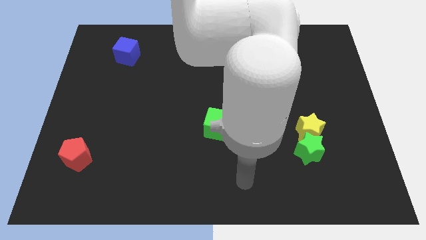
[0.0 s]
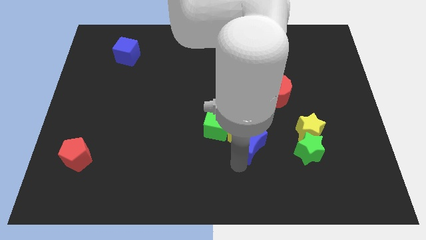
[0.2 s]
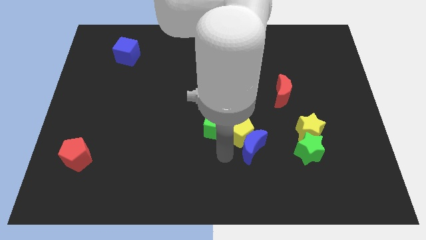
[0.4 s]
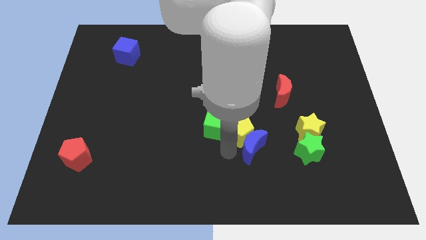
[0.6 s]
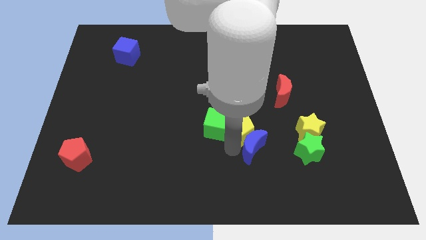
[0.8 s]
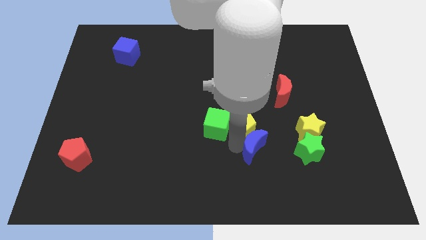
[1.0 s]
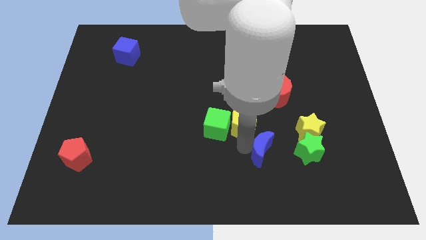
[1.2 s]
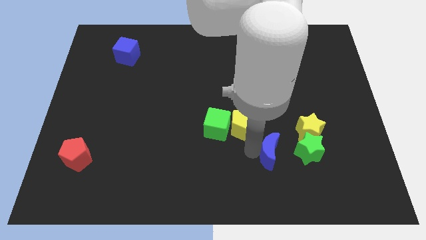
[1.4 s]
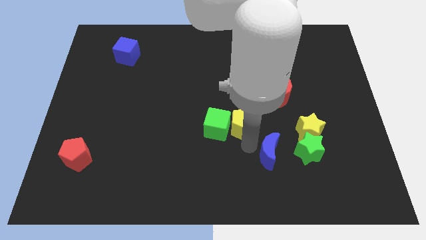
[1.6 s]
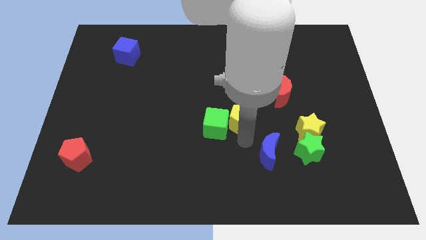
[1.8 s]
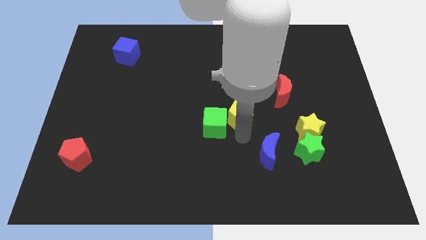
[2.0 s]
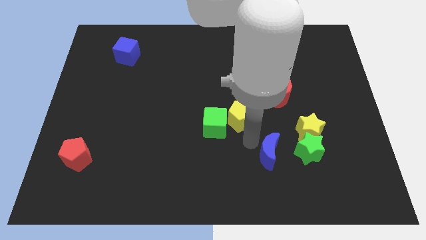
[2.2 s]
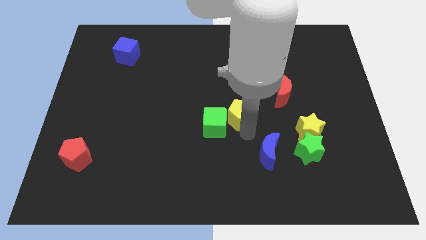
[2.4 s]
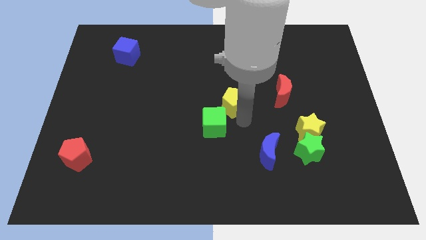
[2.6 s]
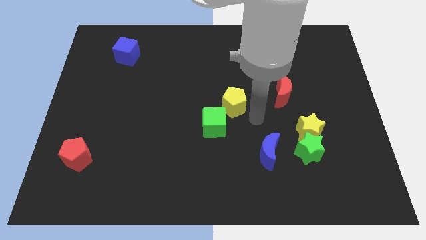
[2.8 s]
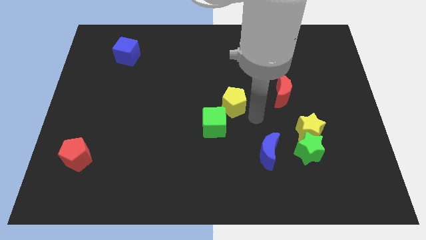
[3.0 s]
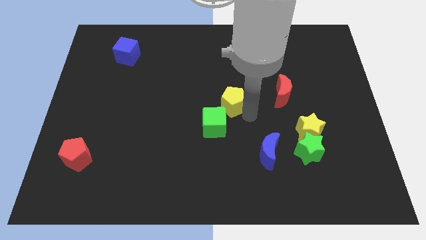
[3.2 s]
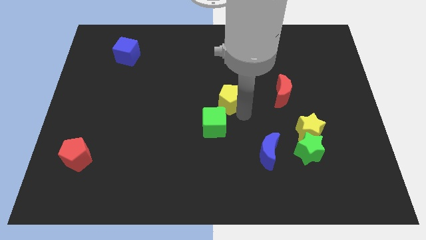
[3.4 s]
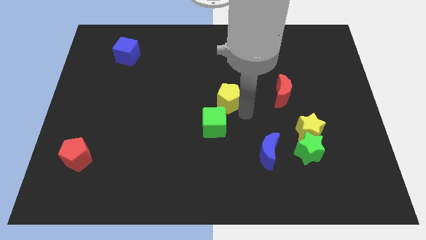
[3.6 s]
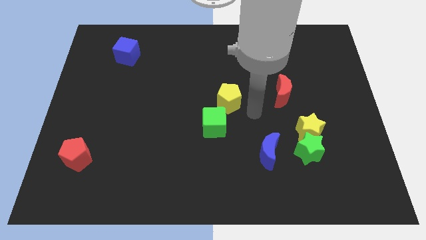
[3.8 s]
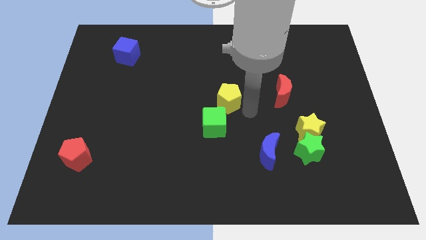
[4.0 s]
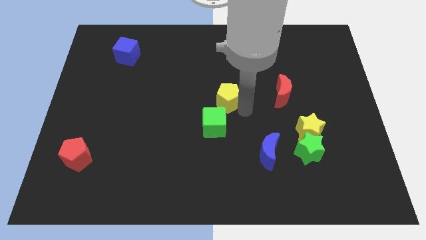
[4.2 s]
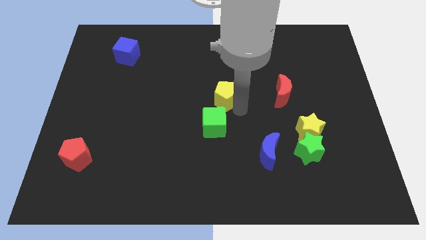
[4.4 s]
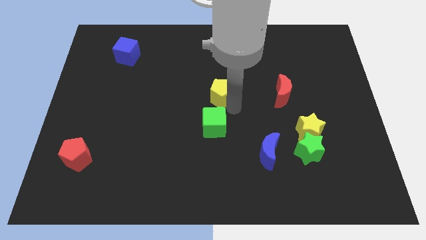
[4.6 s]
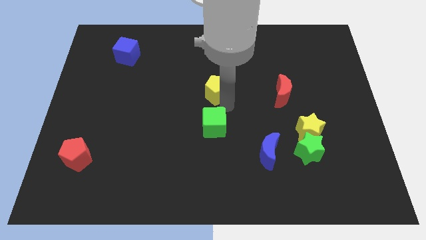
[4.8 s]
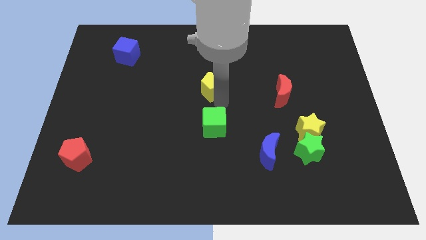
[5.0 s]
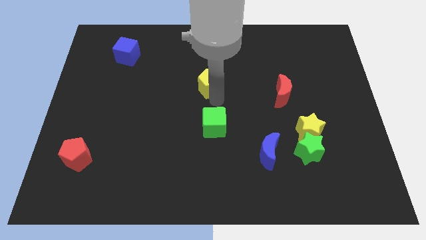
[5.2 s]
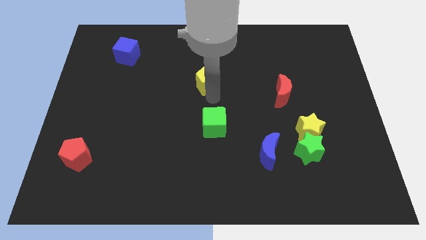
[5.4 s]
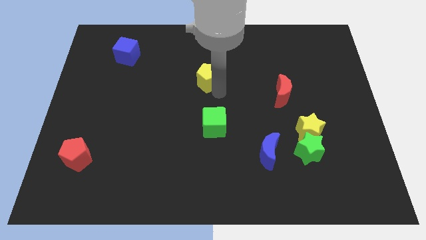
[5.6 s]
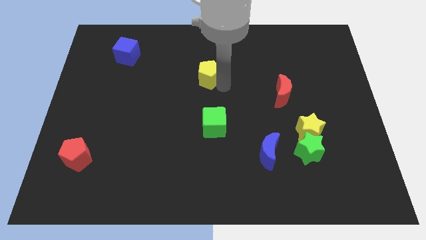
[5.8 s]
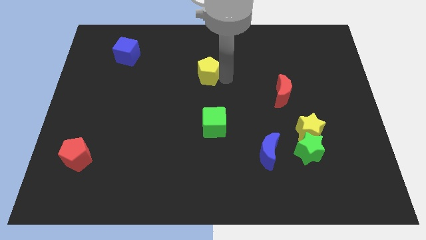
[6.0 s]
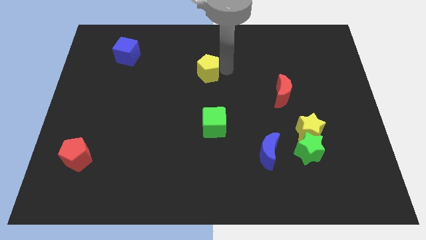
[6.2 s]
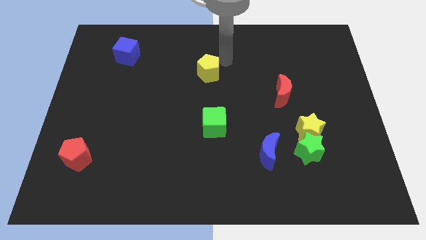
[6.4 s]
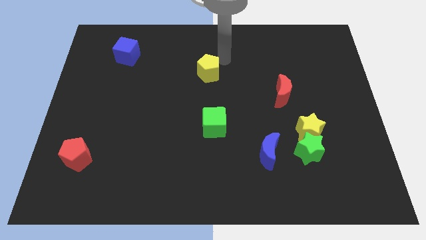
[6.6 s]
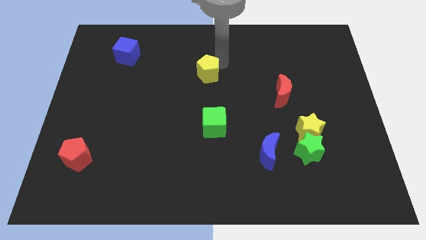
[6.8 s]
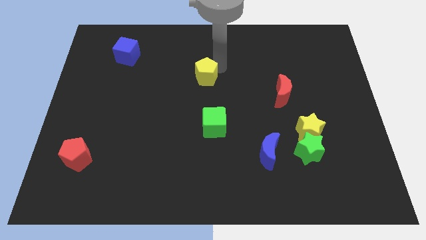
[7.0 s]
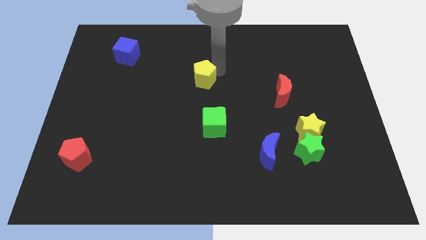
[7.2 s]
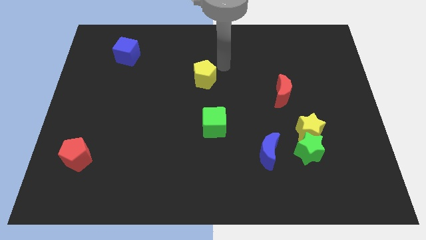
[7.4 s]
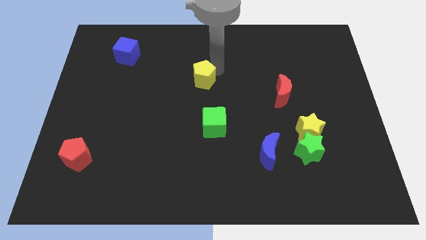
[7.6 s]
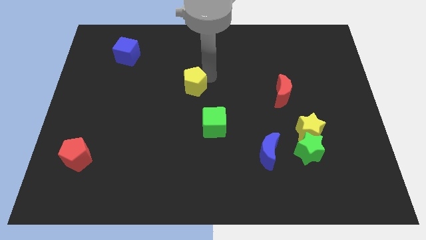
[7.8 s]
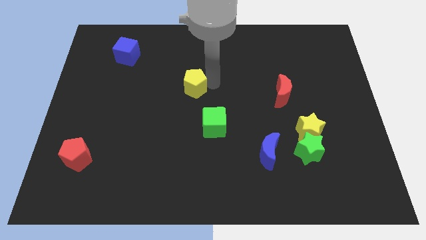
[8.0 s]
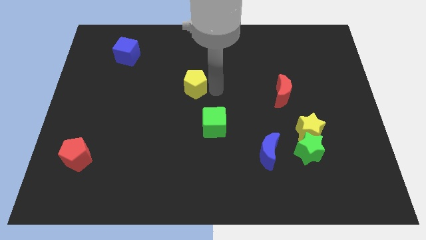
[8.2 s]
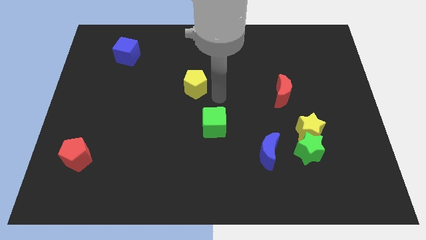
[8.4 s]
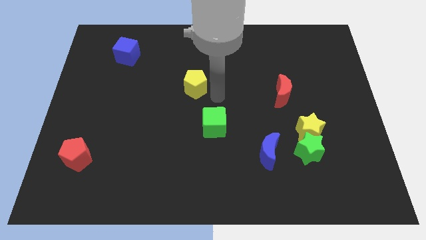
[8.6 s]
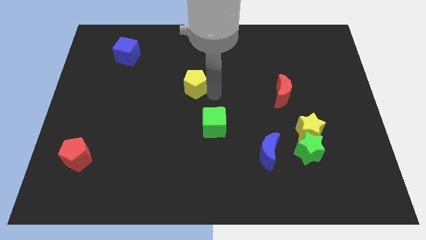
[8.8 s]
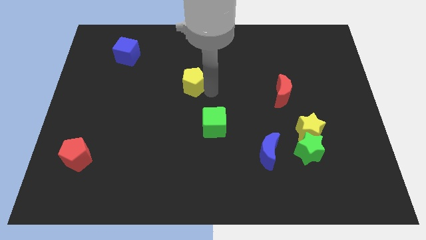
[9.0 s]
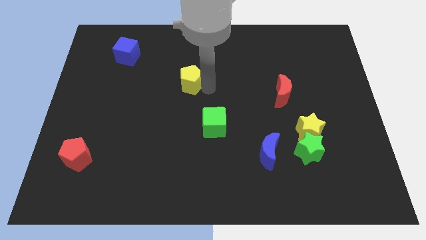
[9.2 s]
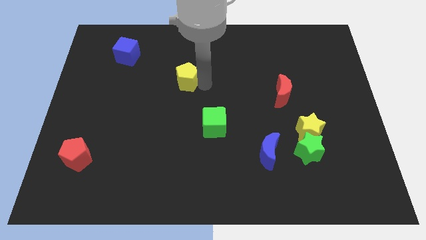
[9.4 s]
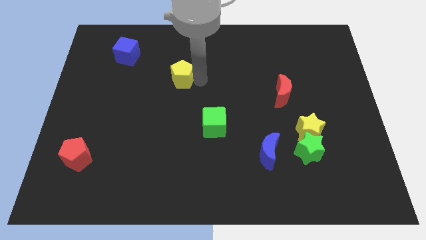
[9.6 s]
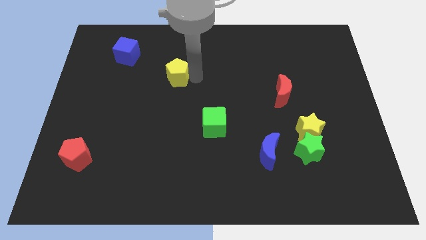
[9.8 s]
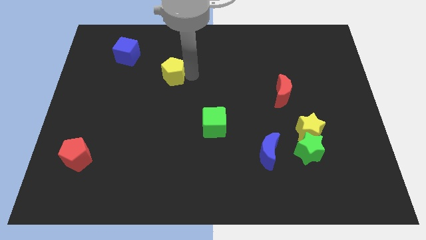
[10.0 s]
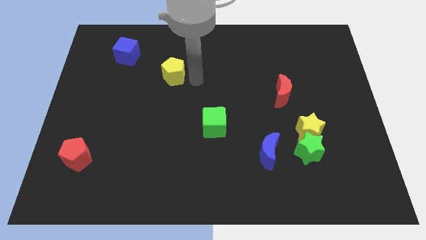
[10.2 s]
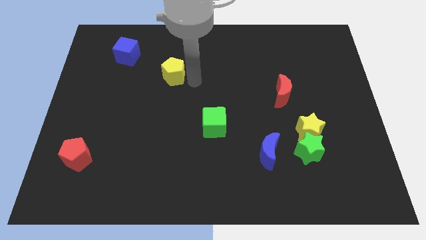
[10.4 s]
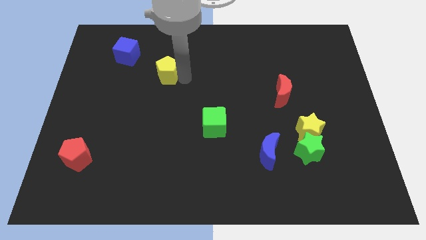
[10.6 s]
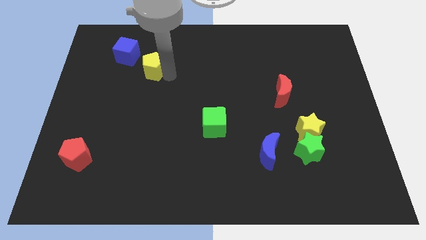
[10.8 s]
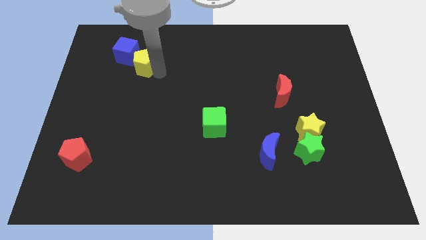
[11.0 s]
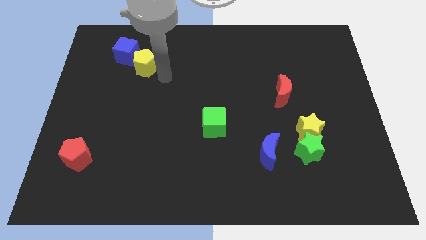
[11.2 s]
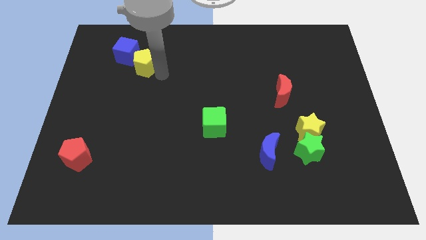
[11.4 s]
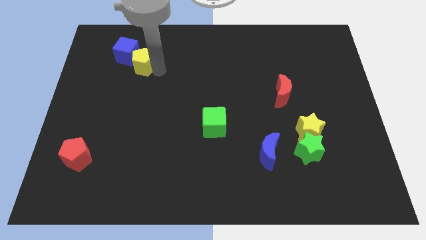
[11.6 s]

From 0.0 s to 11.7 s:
put the yellow pentagon next to the blue cube

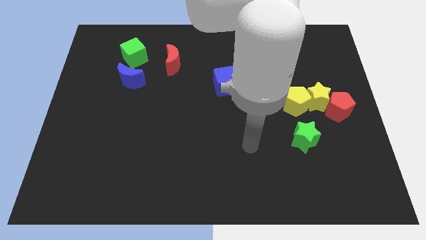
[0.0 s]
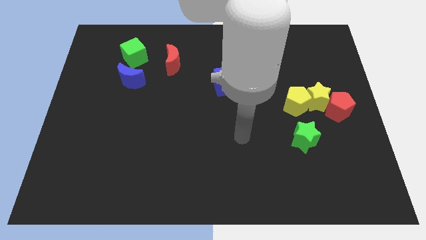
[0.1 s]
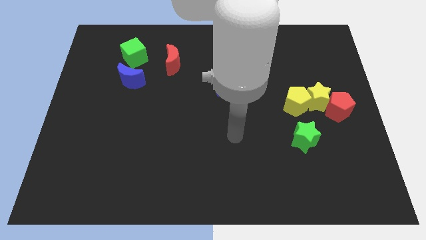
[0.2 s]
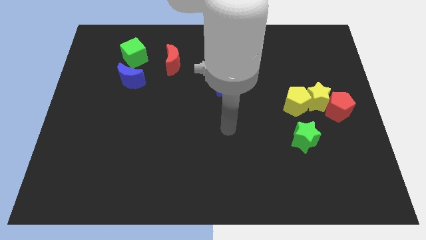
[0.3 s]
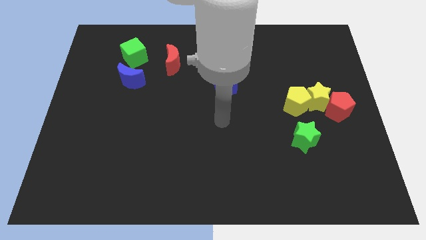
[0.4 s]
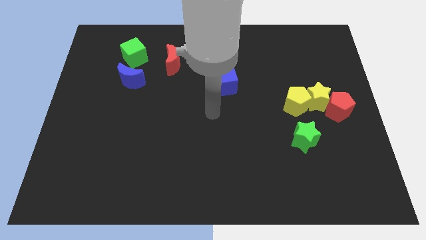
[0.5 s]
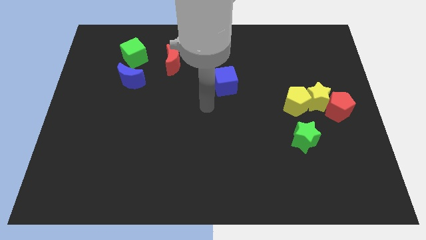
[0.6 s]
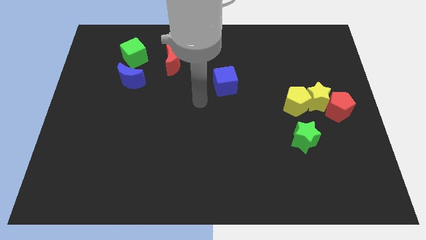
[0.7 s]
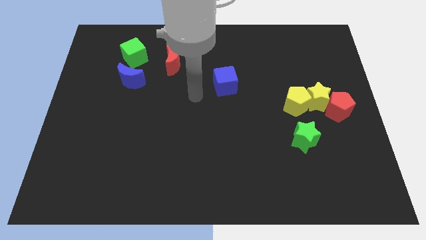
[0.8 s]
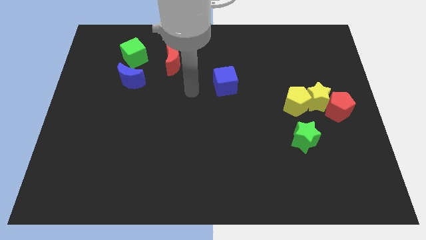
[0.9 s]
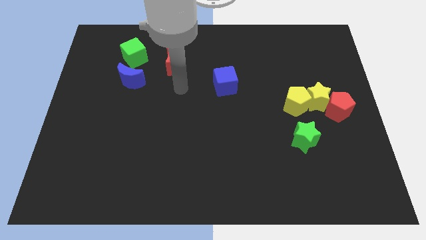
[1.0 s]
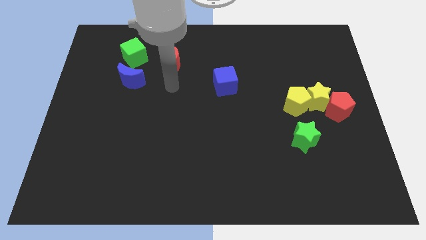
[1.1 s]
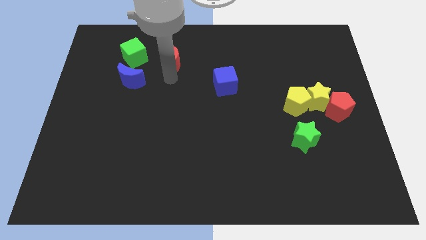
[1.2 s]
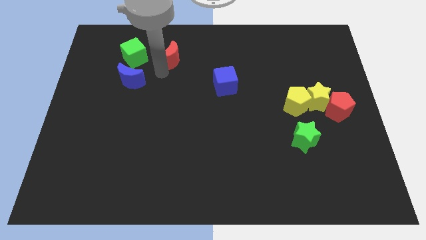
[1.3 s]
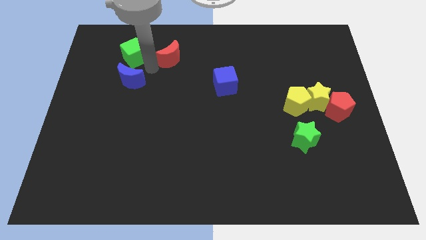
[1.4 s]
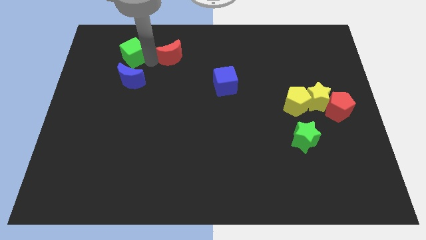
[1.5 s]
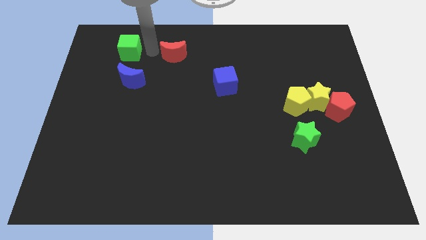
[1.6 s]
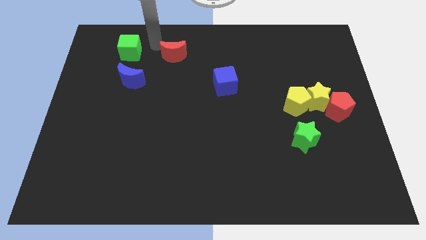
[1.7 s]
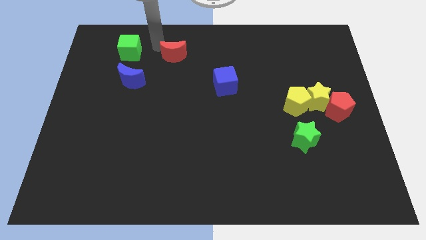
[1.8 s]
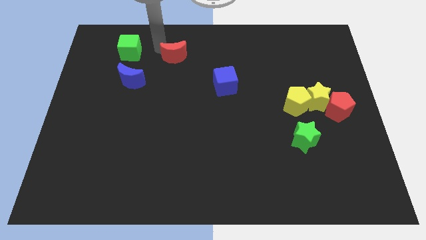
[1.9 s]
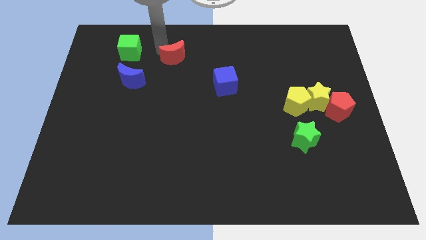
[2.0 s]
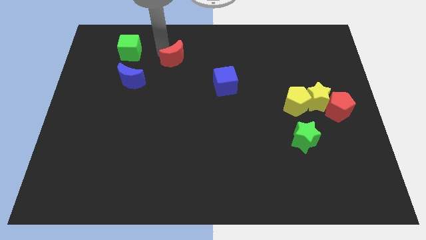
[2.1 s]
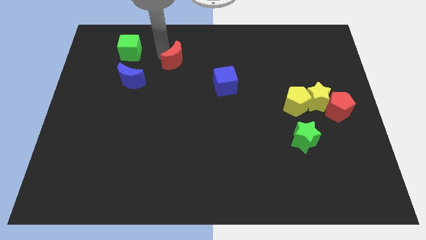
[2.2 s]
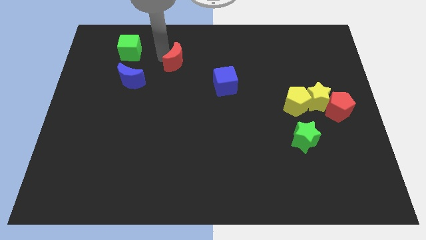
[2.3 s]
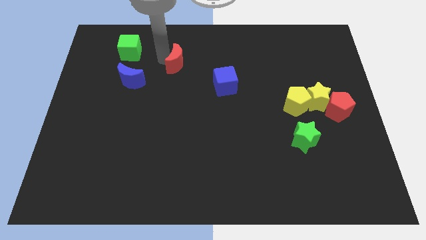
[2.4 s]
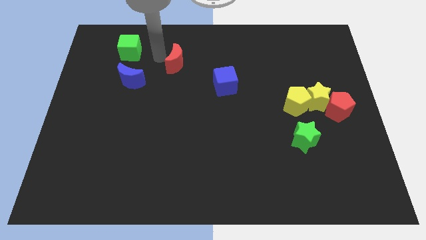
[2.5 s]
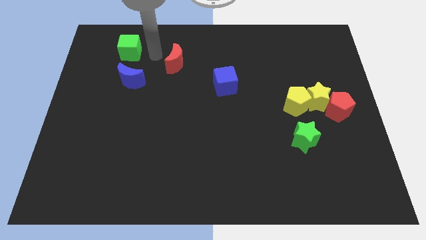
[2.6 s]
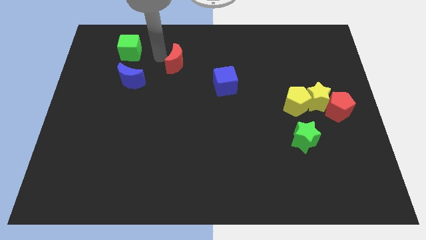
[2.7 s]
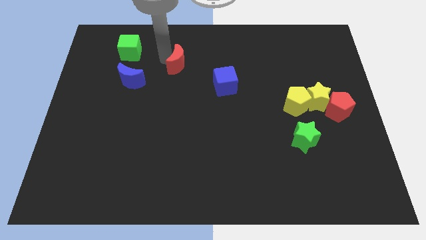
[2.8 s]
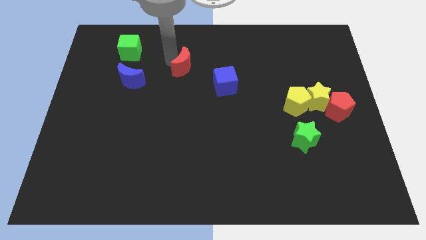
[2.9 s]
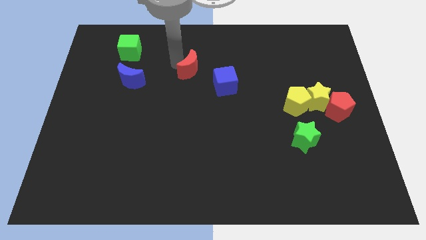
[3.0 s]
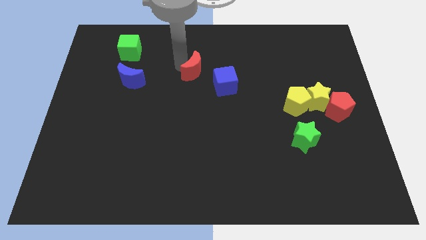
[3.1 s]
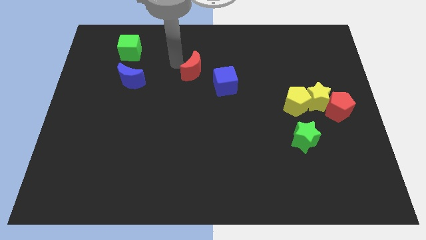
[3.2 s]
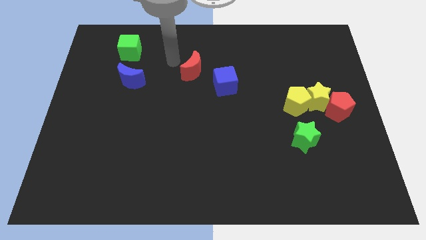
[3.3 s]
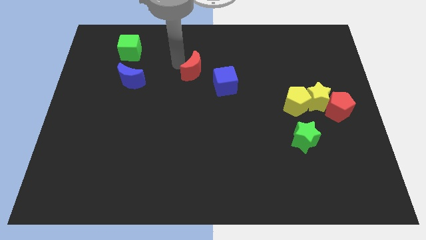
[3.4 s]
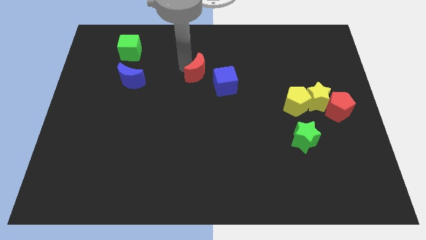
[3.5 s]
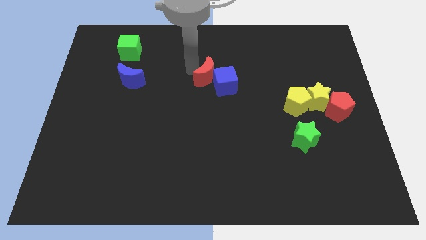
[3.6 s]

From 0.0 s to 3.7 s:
slide the red moon next to the blue cube
